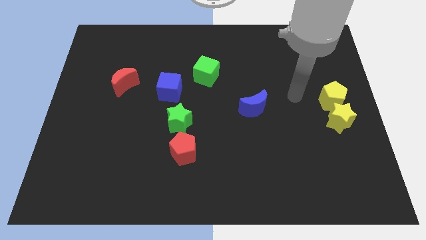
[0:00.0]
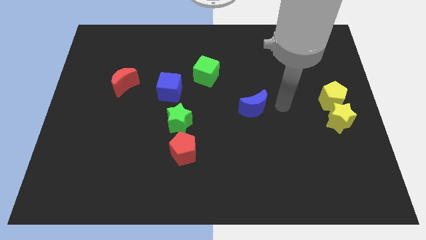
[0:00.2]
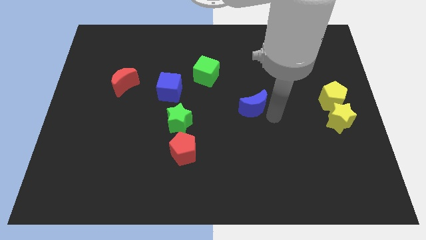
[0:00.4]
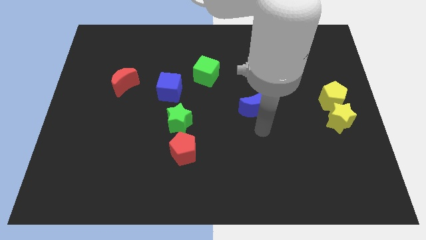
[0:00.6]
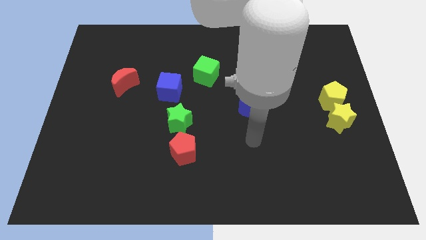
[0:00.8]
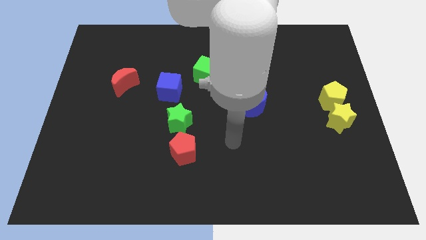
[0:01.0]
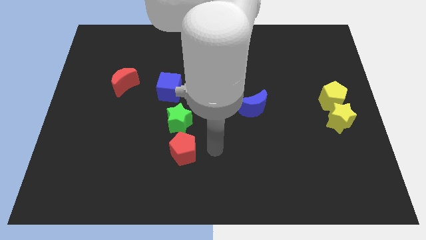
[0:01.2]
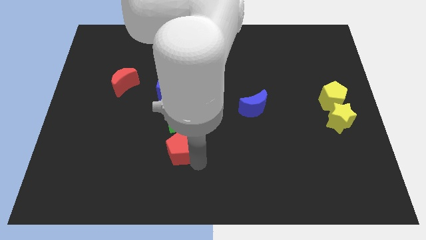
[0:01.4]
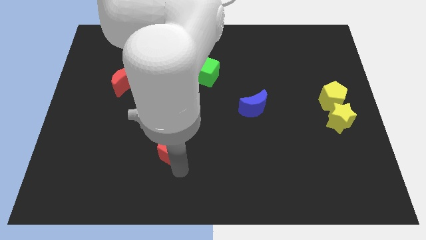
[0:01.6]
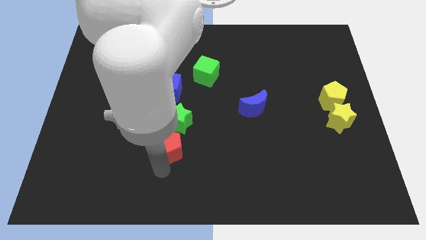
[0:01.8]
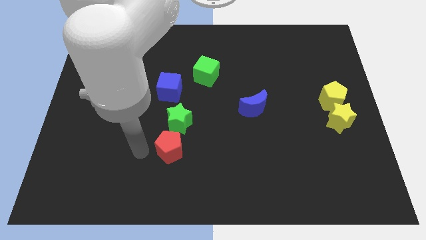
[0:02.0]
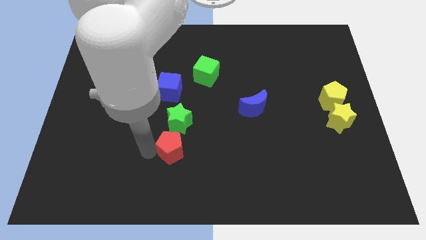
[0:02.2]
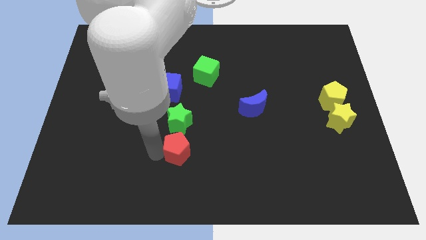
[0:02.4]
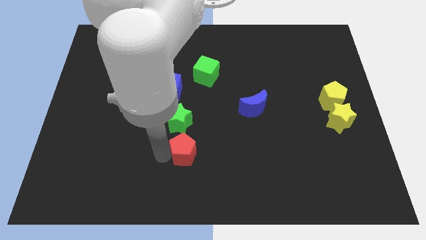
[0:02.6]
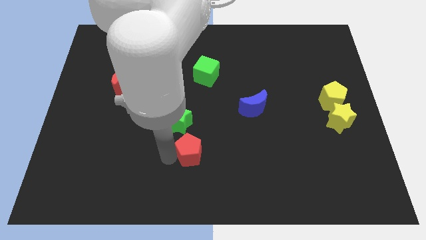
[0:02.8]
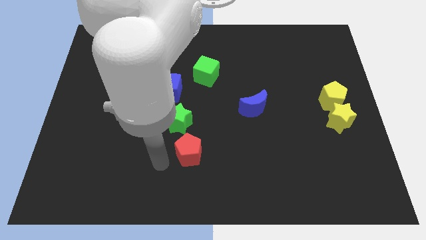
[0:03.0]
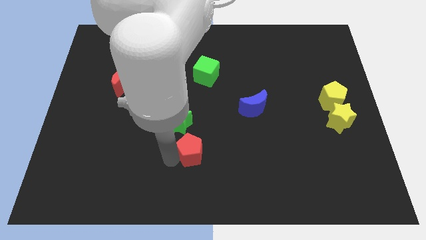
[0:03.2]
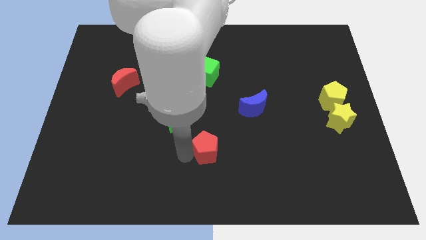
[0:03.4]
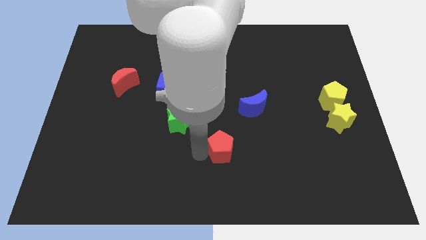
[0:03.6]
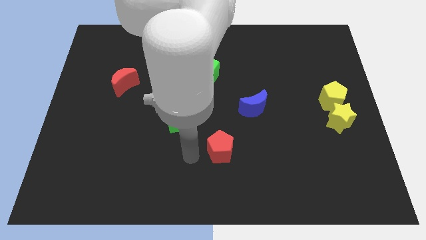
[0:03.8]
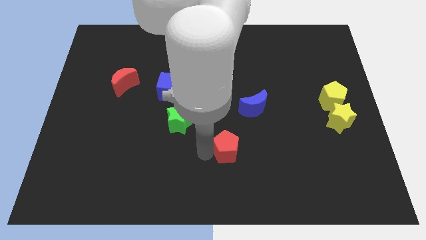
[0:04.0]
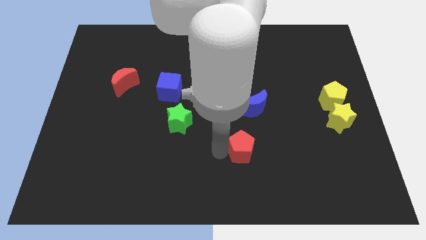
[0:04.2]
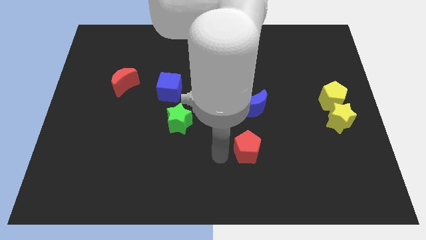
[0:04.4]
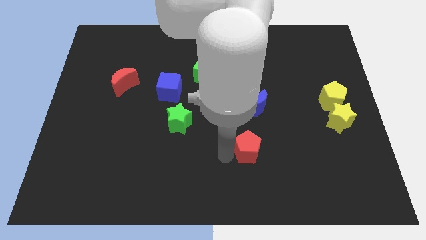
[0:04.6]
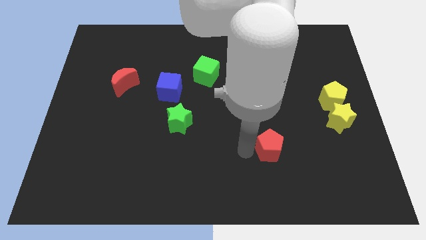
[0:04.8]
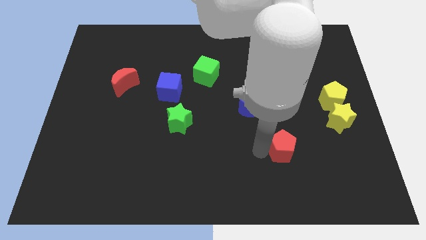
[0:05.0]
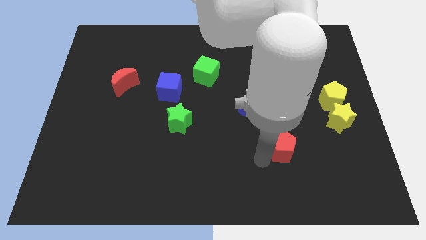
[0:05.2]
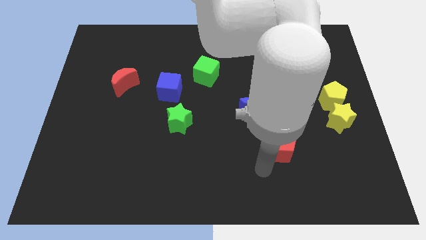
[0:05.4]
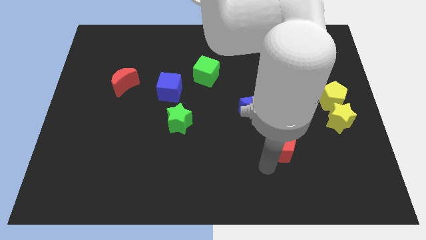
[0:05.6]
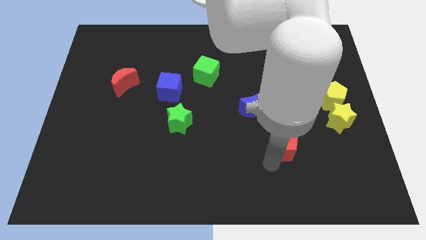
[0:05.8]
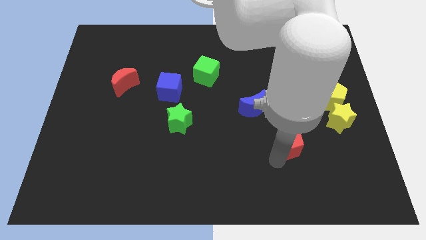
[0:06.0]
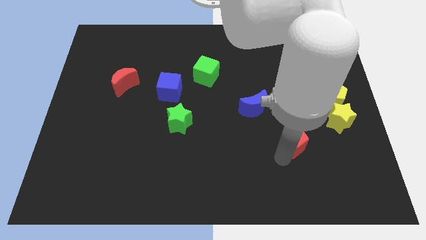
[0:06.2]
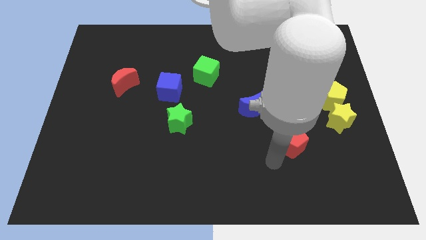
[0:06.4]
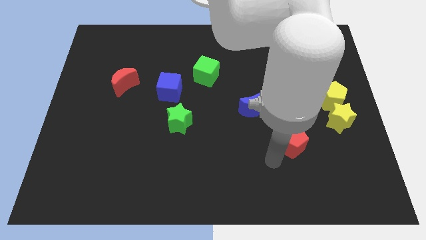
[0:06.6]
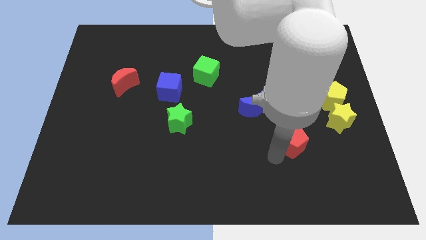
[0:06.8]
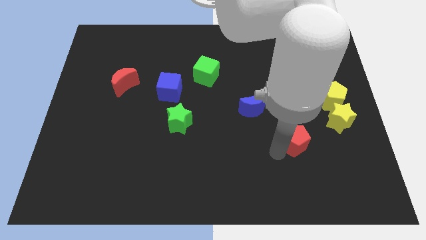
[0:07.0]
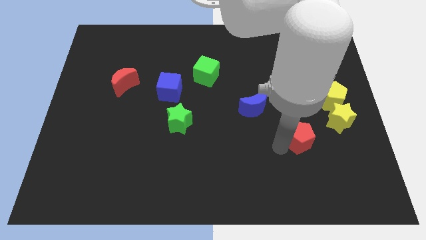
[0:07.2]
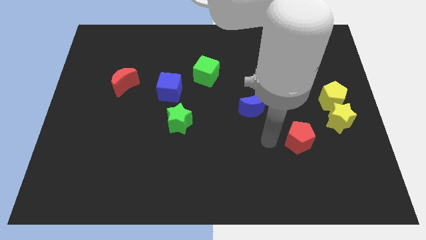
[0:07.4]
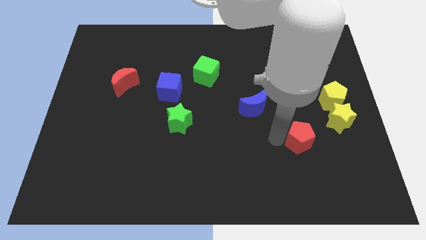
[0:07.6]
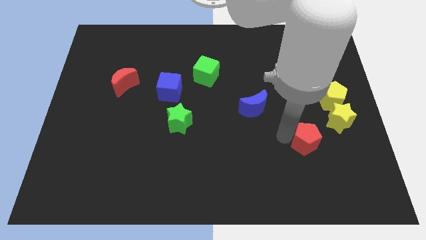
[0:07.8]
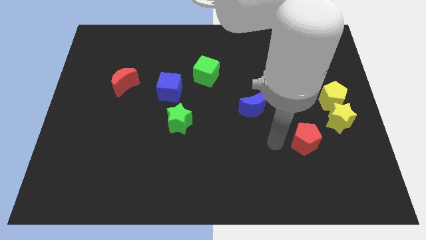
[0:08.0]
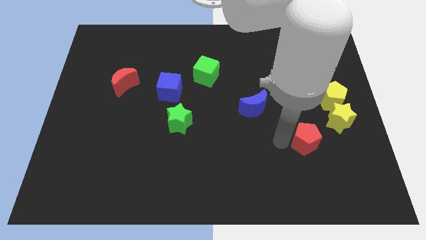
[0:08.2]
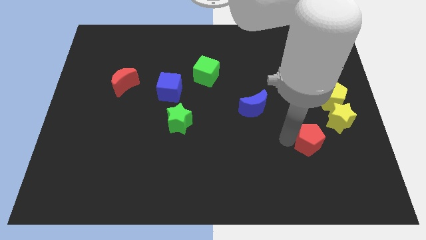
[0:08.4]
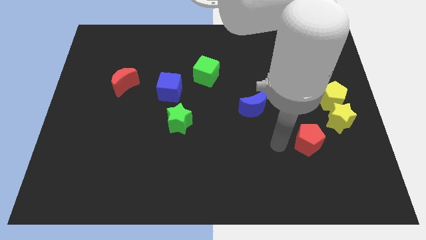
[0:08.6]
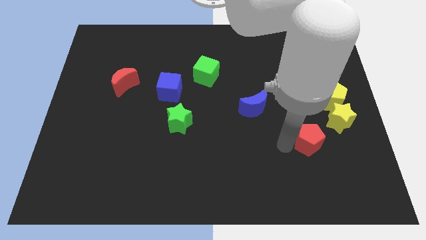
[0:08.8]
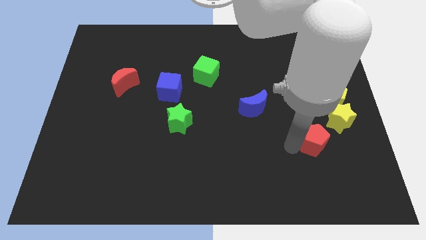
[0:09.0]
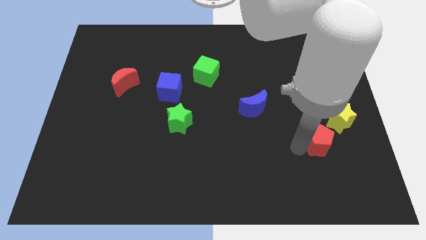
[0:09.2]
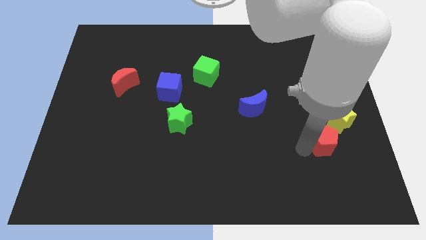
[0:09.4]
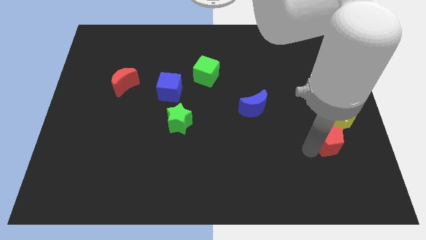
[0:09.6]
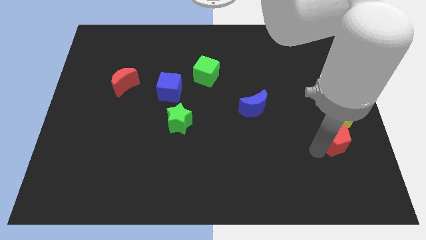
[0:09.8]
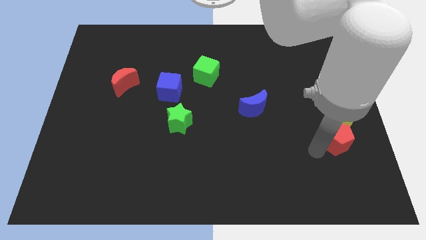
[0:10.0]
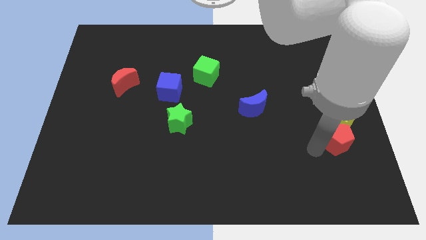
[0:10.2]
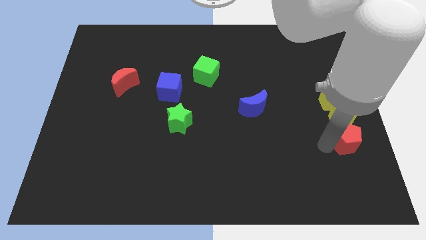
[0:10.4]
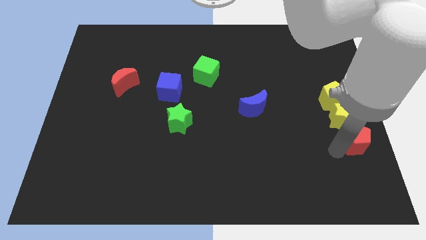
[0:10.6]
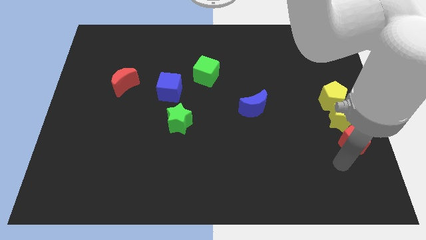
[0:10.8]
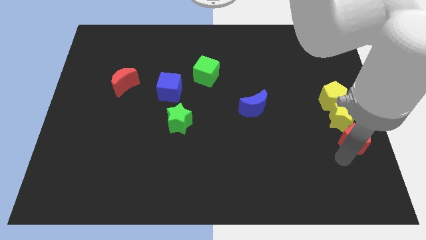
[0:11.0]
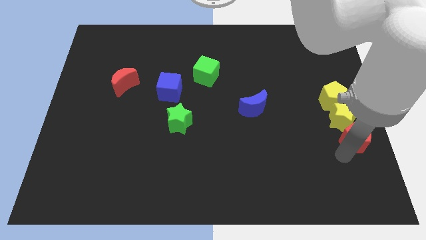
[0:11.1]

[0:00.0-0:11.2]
put the red pentagon to the right side of the board

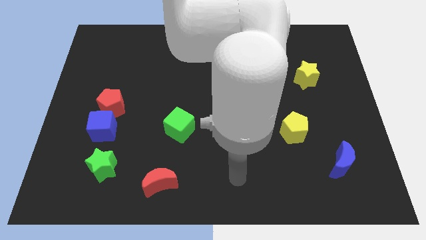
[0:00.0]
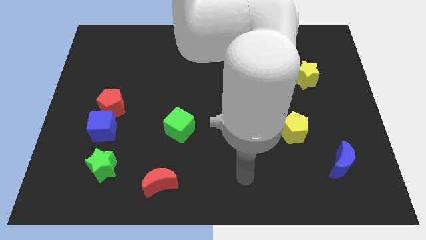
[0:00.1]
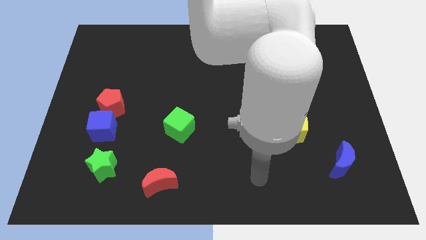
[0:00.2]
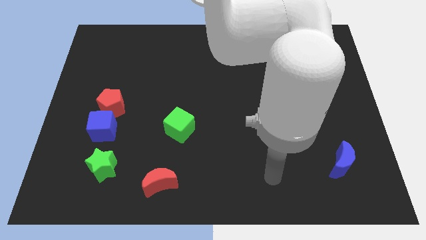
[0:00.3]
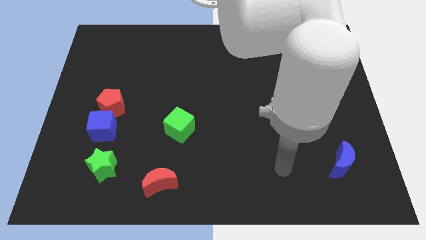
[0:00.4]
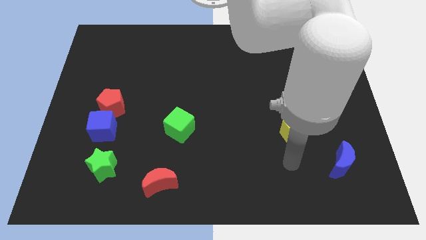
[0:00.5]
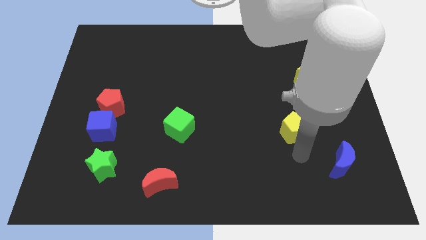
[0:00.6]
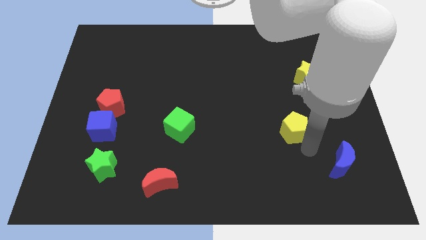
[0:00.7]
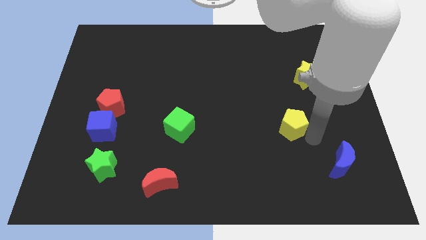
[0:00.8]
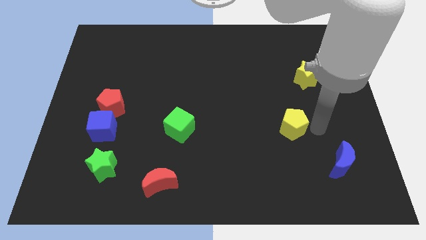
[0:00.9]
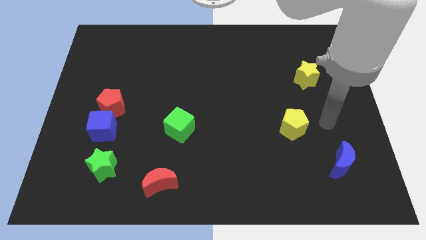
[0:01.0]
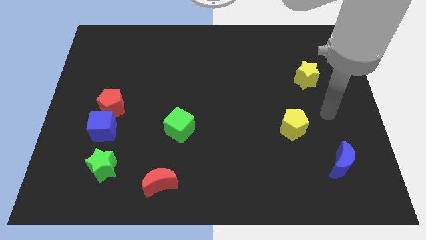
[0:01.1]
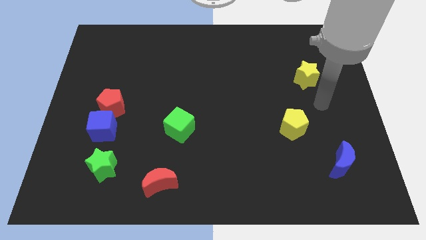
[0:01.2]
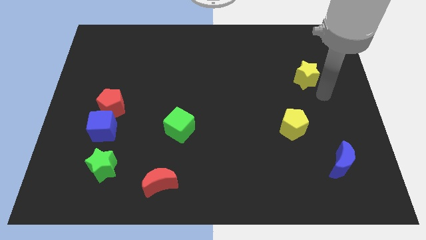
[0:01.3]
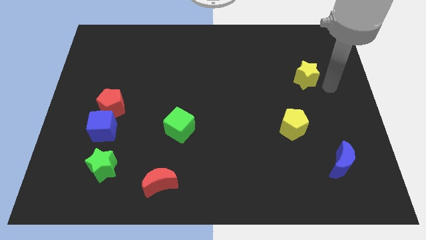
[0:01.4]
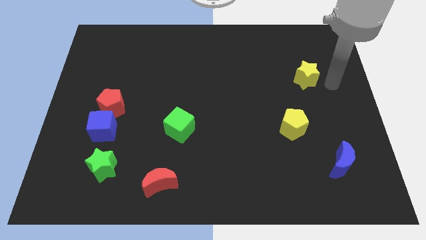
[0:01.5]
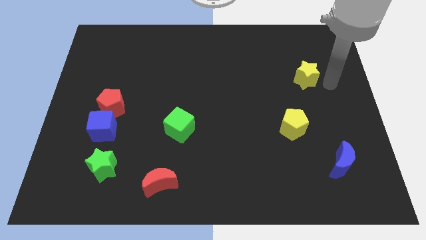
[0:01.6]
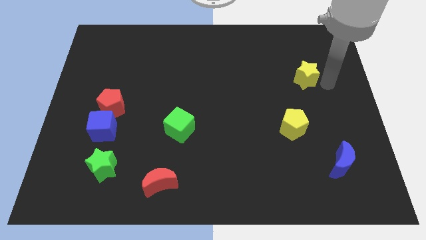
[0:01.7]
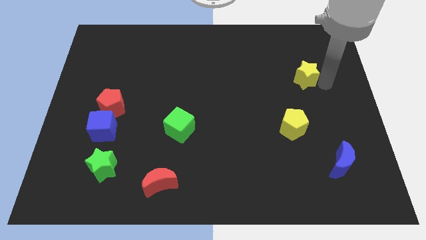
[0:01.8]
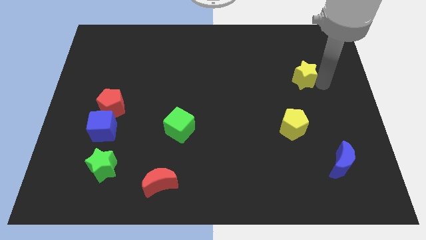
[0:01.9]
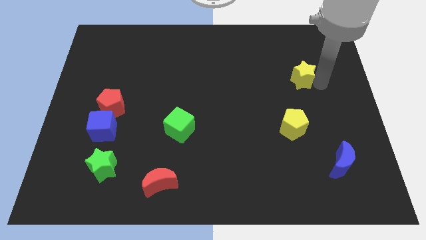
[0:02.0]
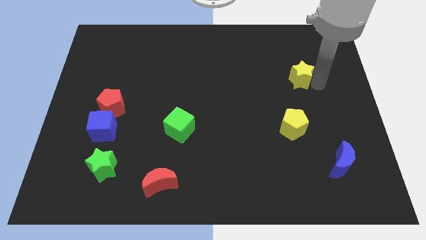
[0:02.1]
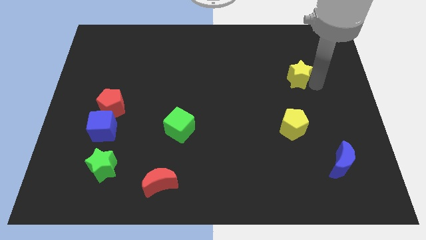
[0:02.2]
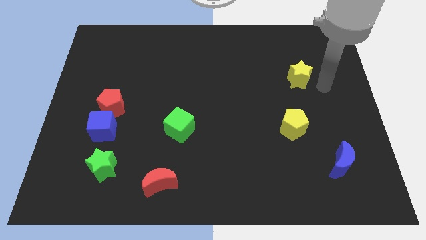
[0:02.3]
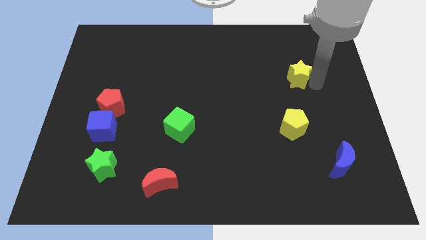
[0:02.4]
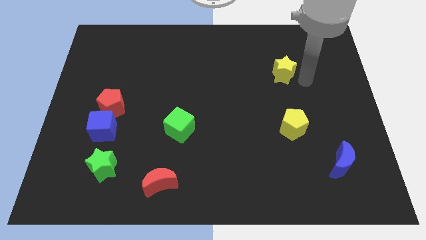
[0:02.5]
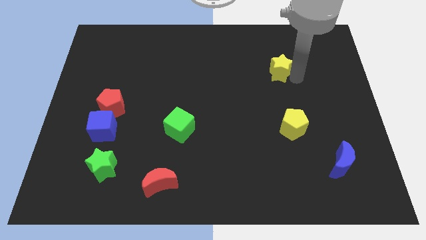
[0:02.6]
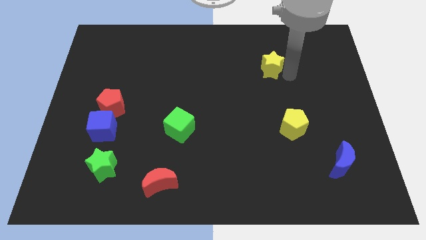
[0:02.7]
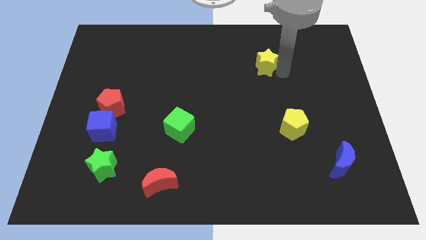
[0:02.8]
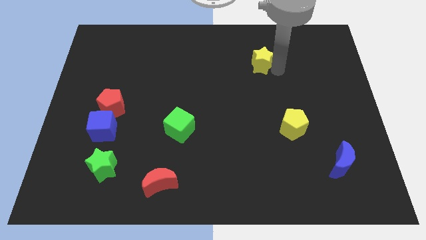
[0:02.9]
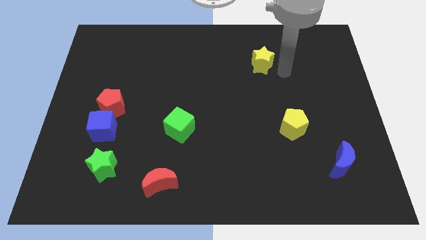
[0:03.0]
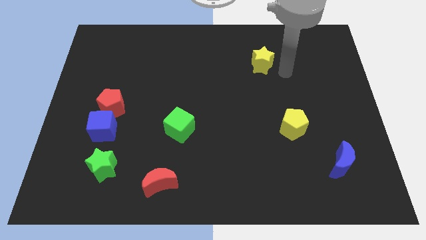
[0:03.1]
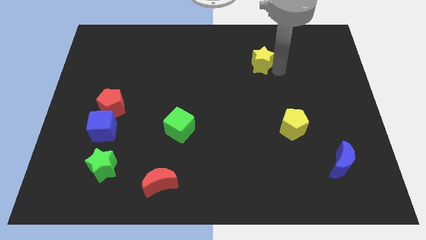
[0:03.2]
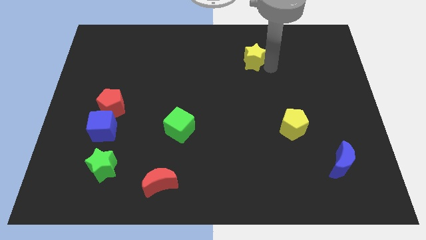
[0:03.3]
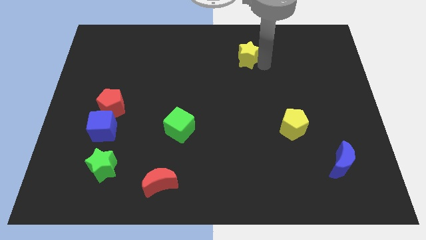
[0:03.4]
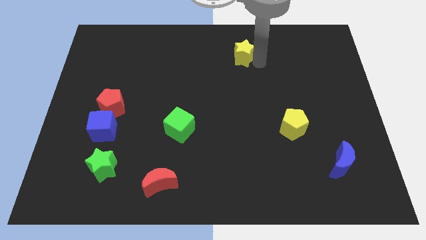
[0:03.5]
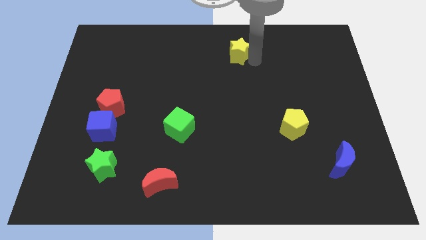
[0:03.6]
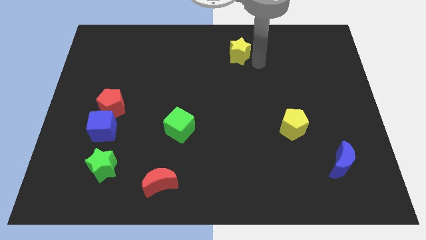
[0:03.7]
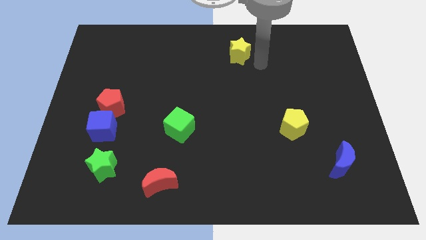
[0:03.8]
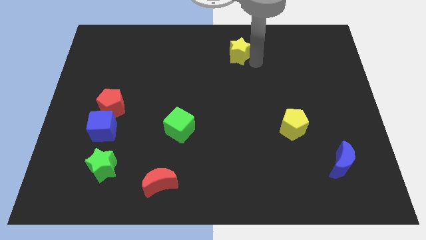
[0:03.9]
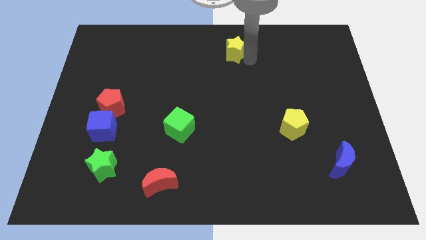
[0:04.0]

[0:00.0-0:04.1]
move the yellow star to the top
